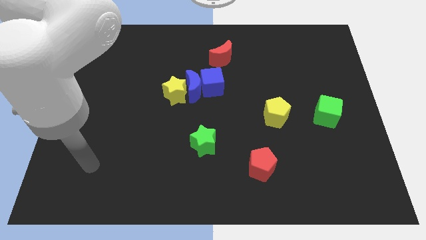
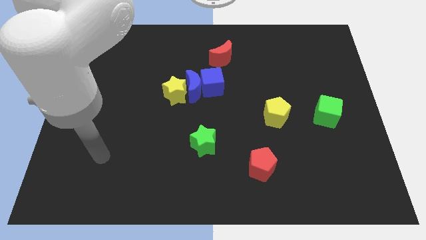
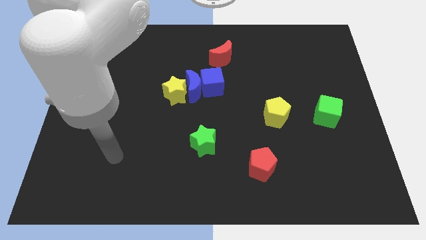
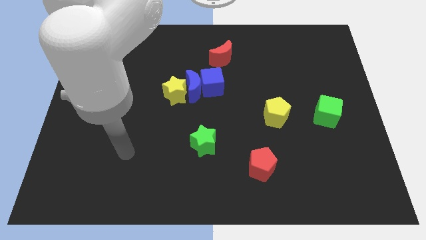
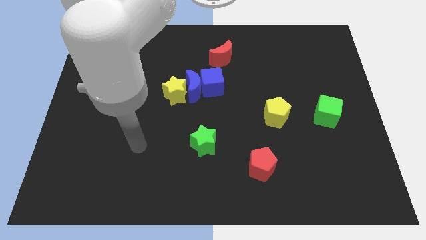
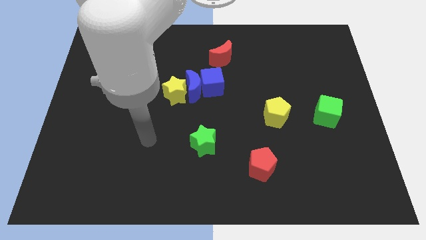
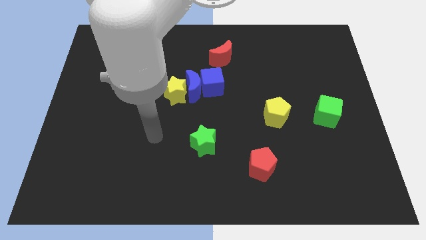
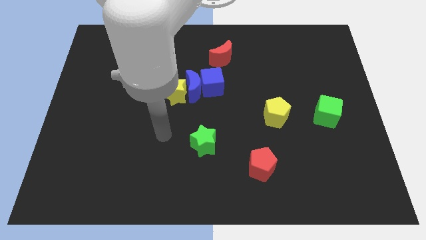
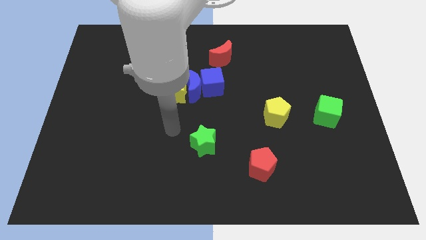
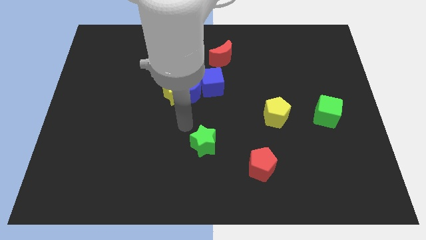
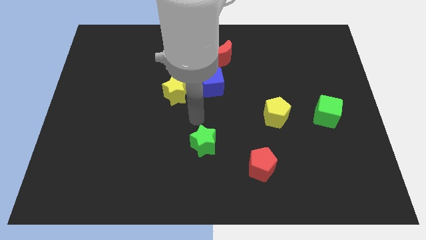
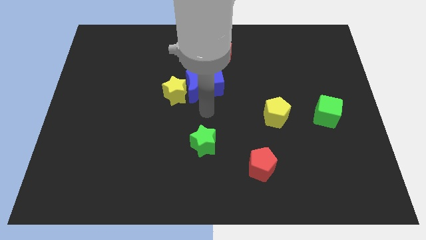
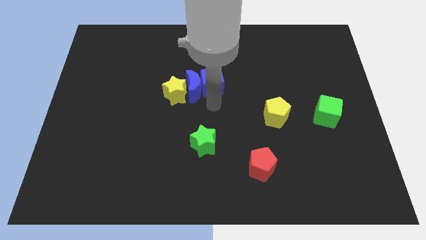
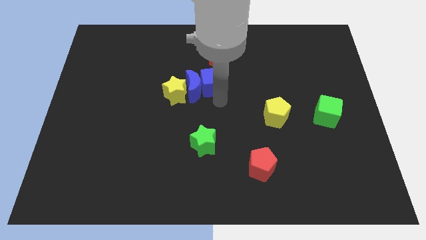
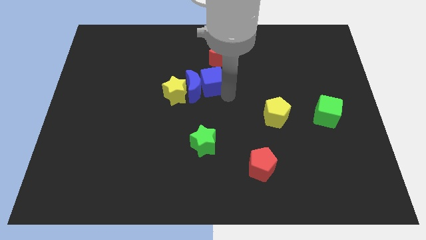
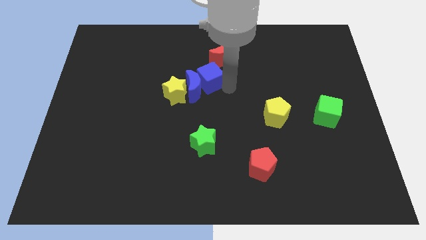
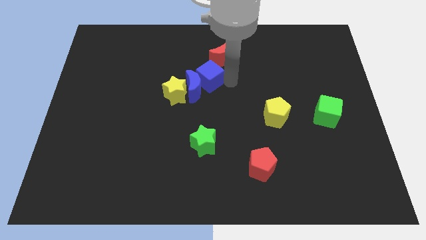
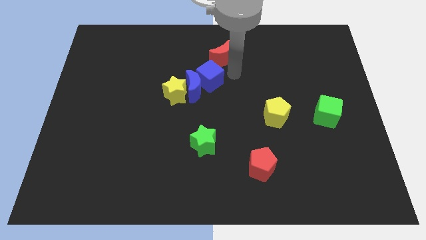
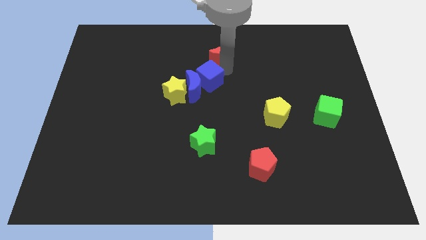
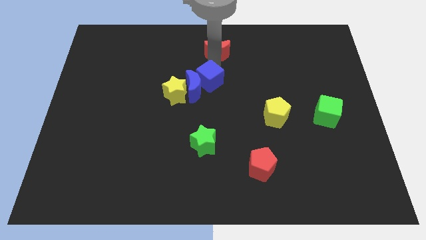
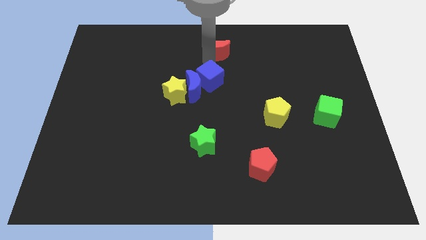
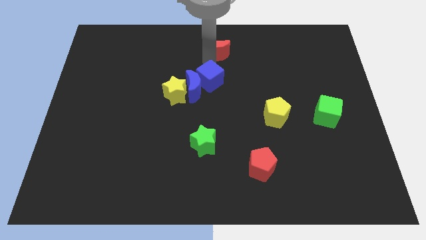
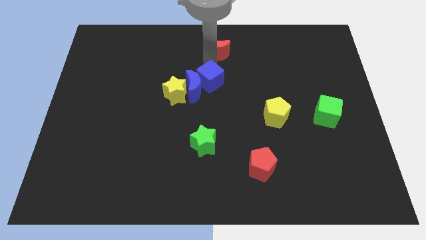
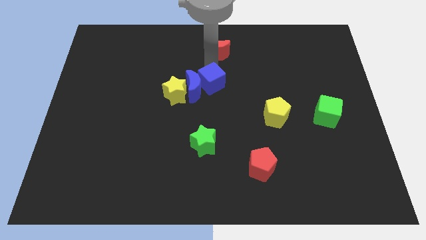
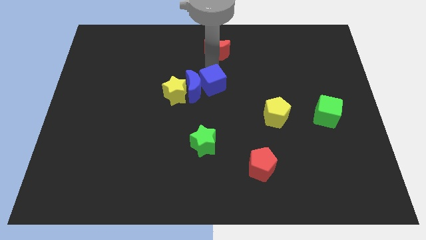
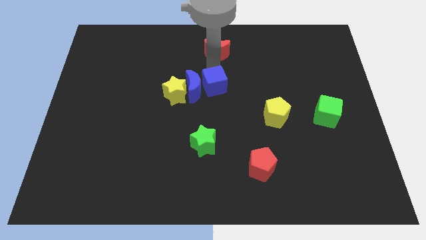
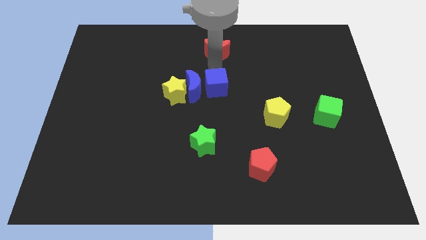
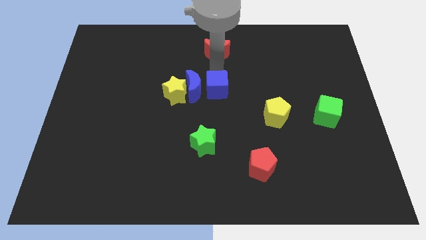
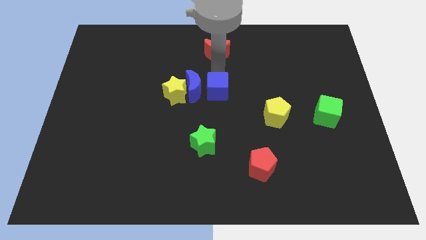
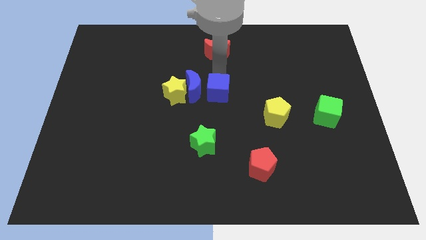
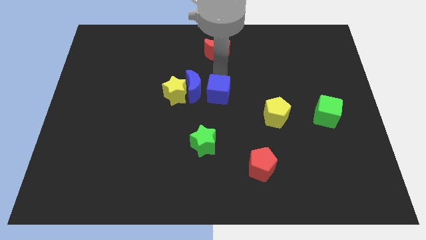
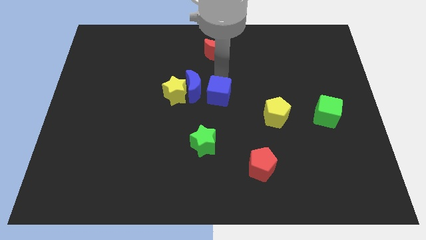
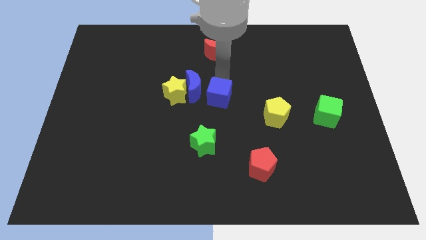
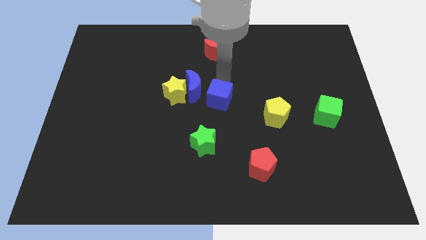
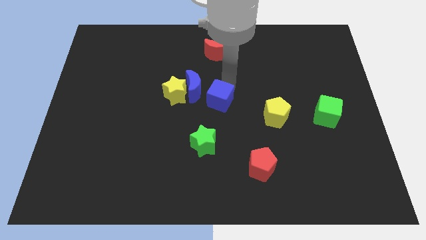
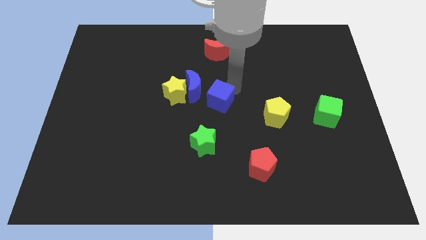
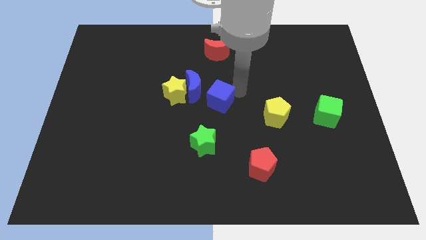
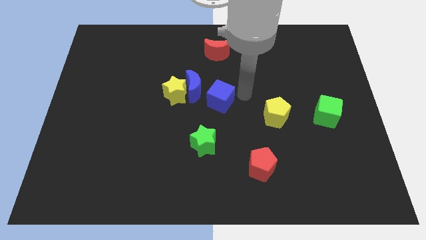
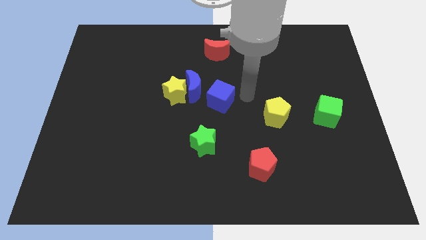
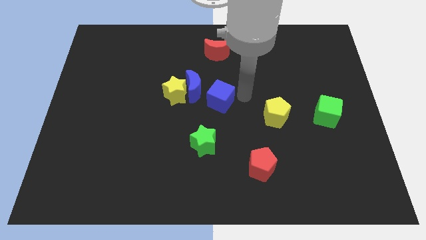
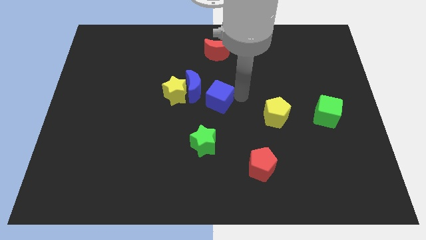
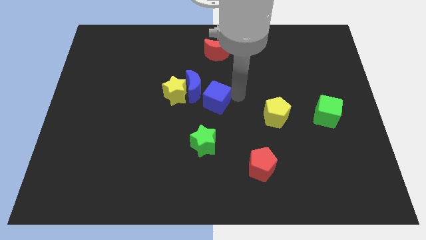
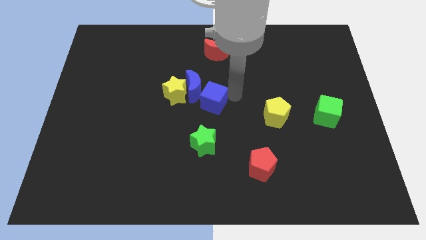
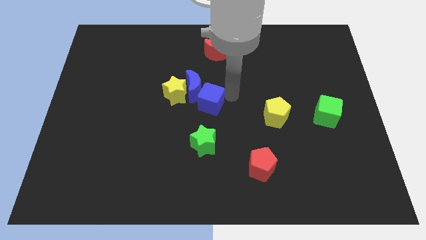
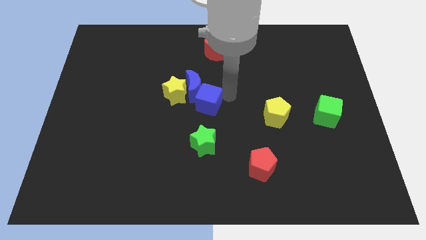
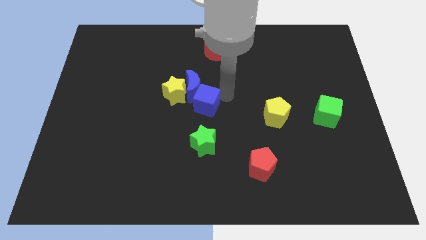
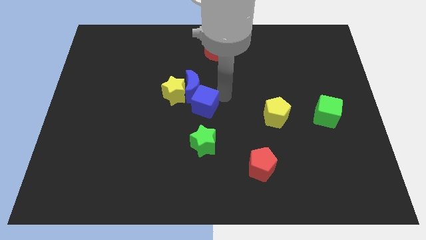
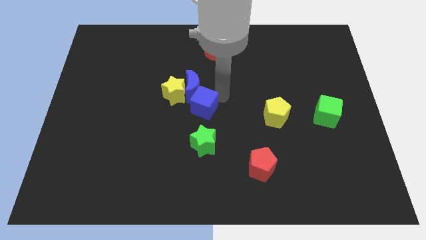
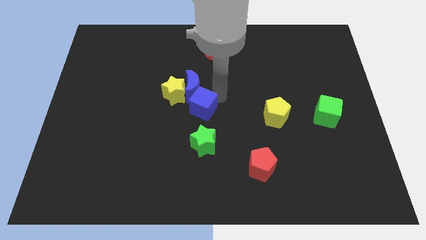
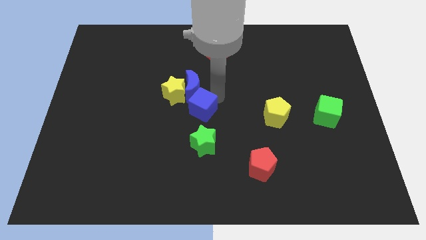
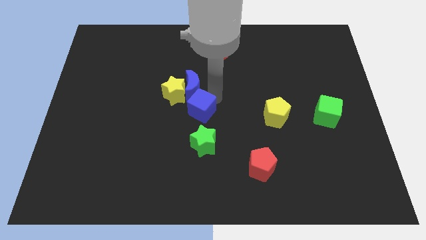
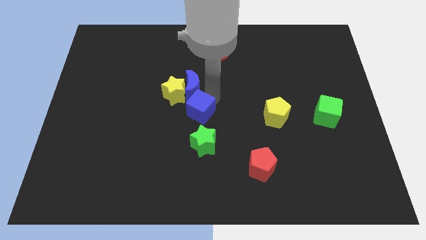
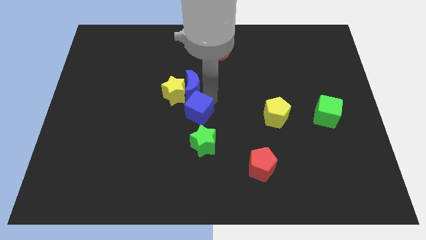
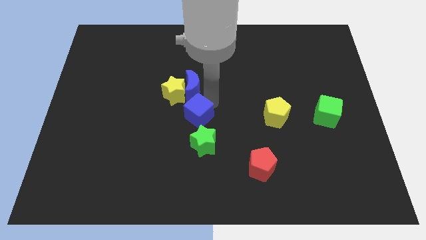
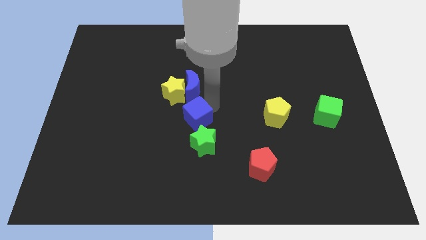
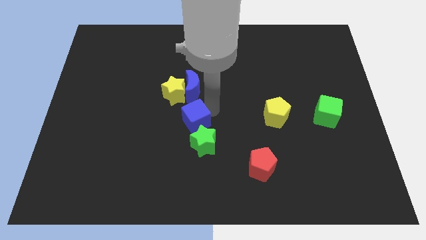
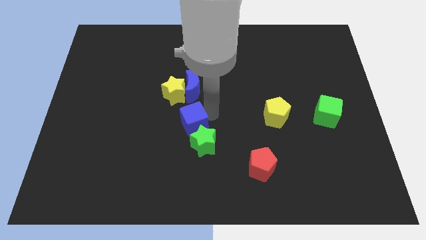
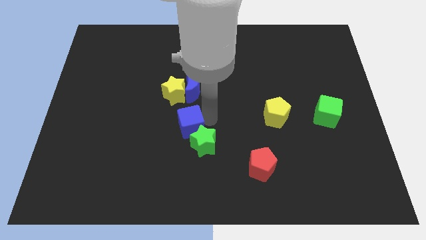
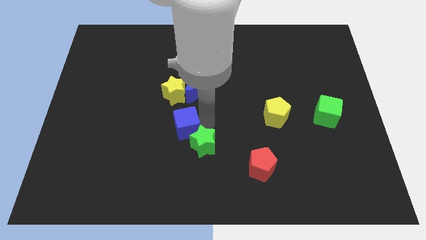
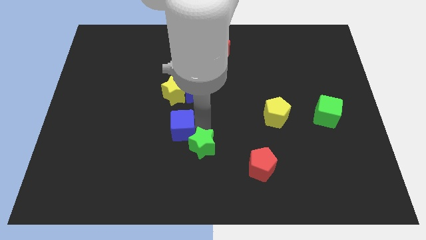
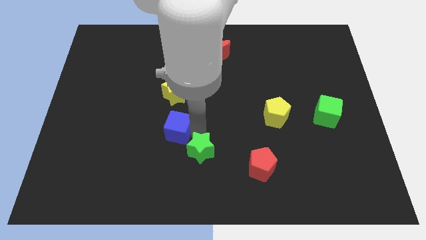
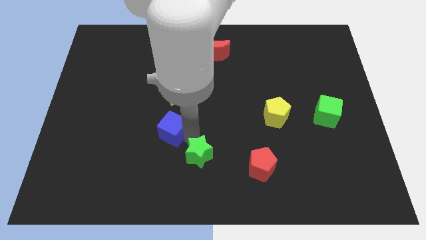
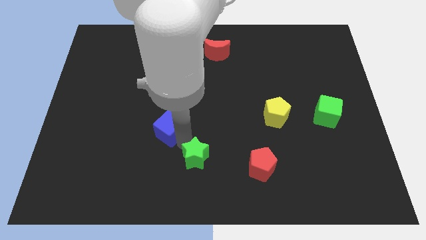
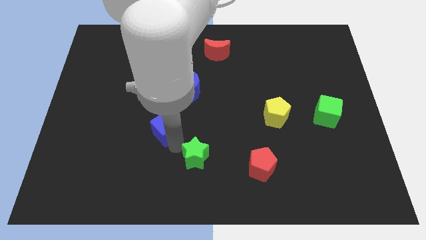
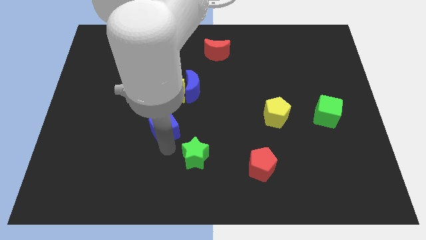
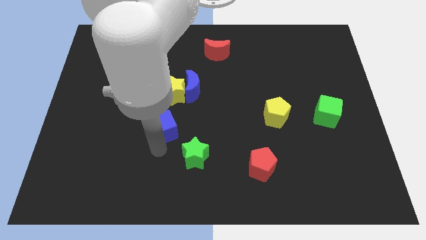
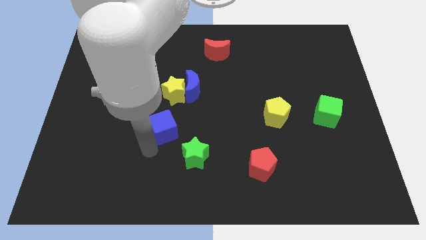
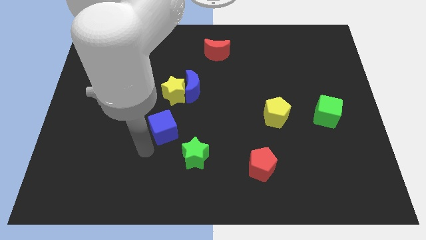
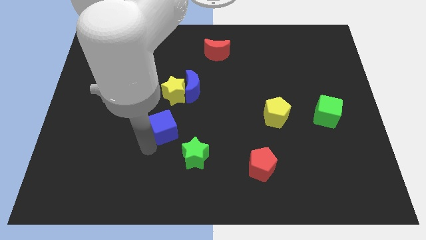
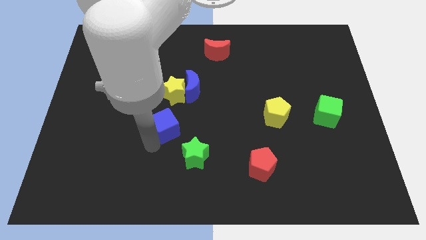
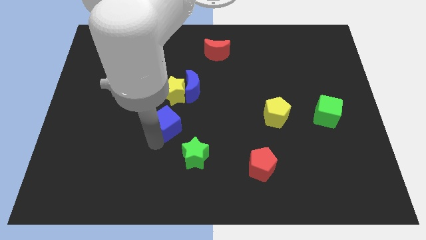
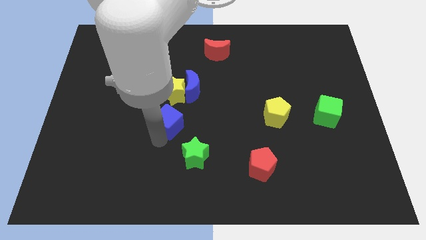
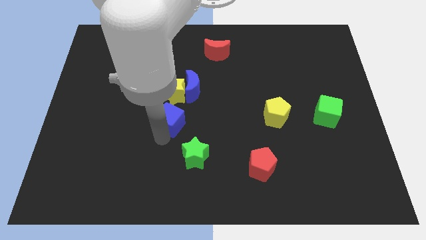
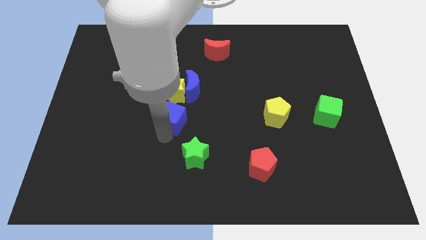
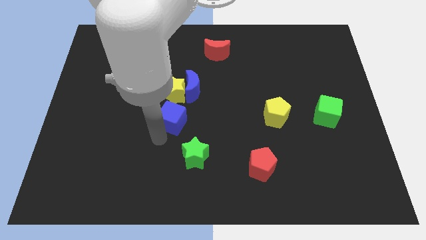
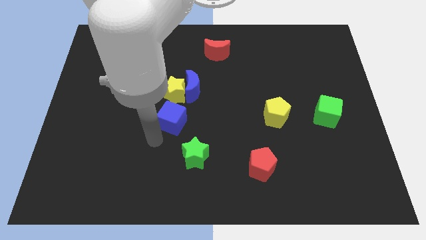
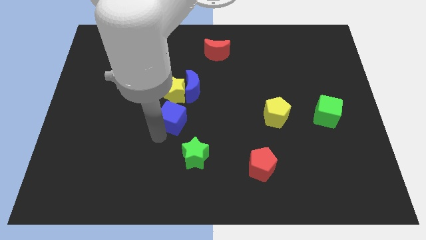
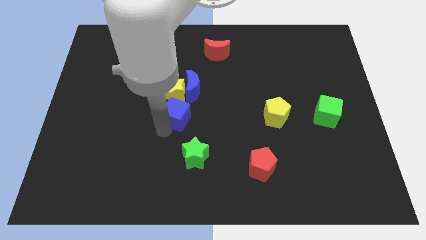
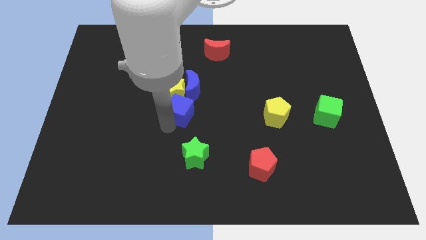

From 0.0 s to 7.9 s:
put the blue cube towards the yellow star
